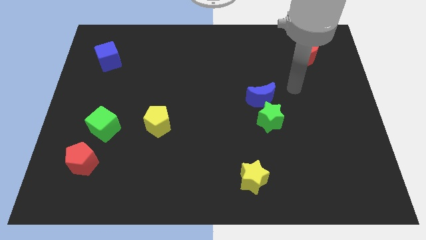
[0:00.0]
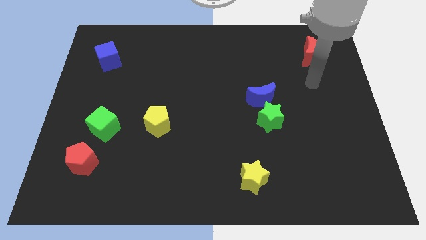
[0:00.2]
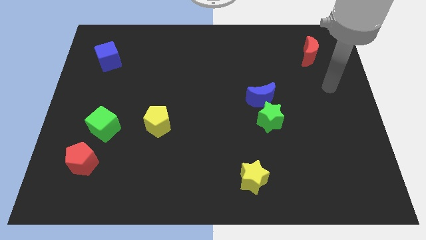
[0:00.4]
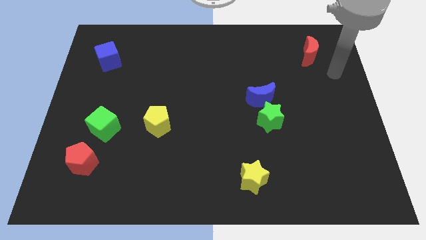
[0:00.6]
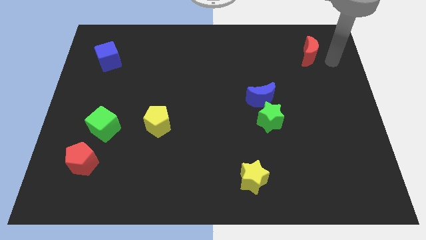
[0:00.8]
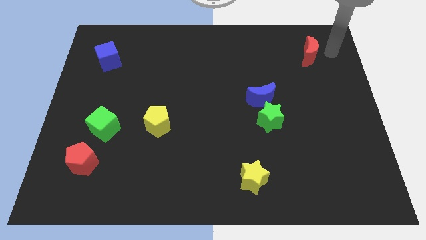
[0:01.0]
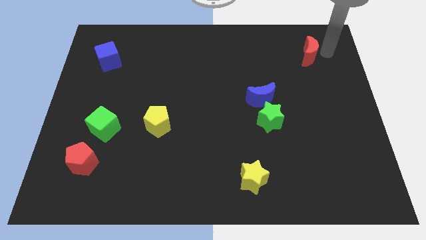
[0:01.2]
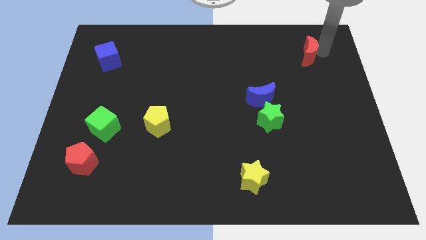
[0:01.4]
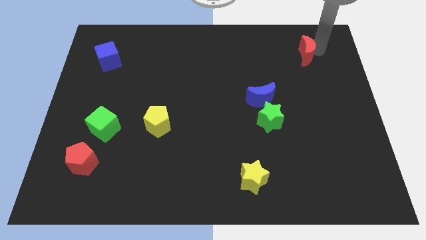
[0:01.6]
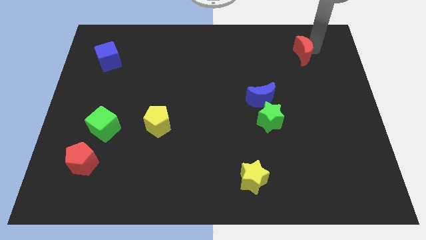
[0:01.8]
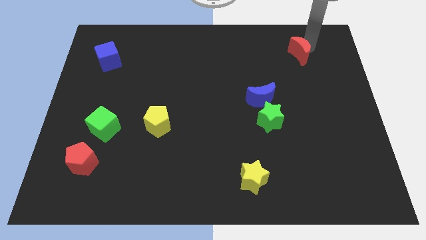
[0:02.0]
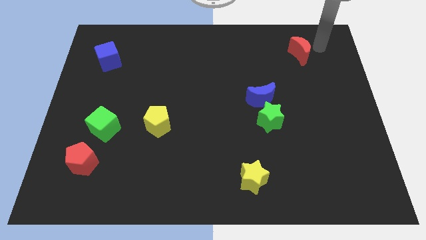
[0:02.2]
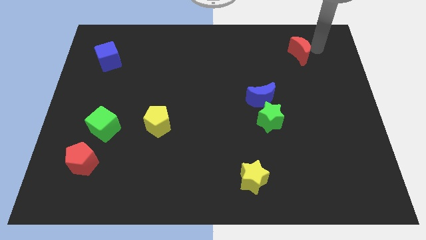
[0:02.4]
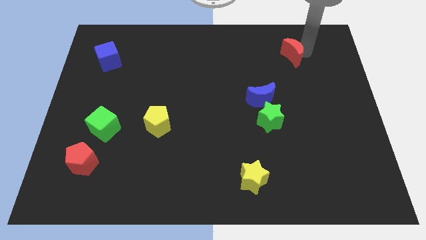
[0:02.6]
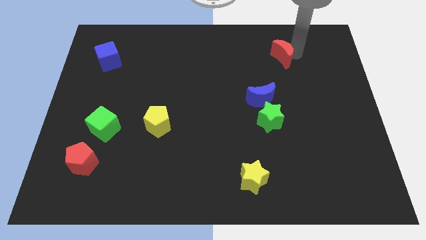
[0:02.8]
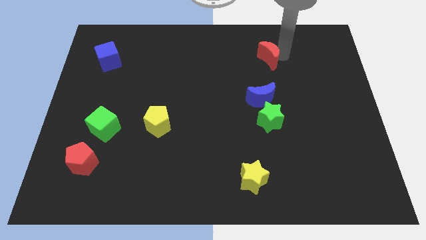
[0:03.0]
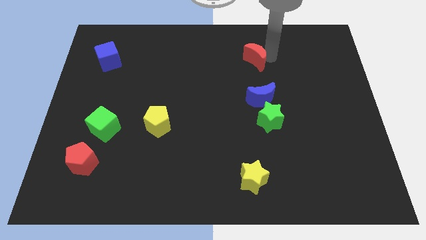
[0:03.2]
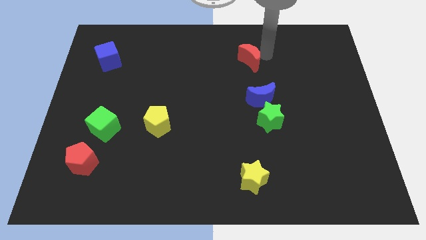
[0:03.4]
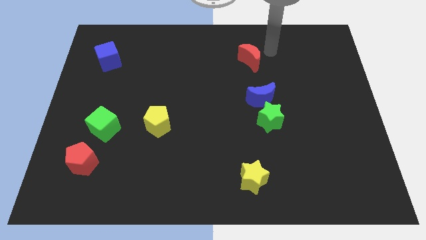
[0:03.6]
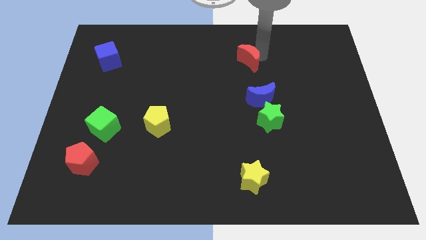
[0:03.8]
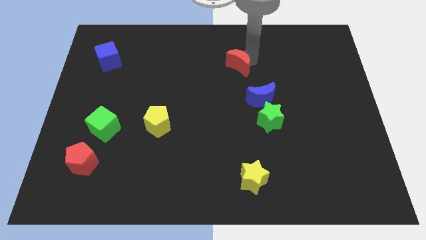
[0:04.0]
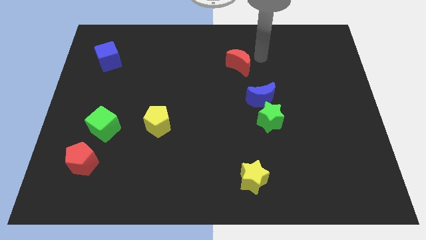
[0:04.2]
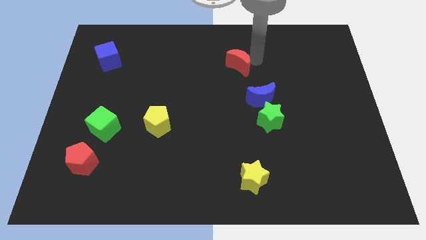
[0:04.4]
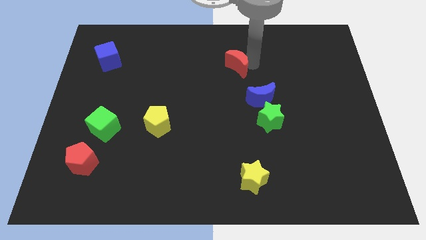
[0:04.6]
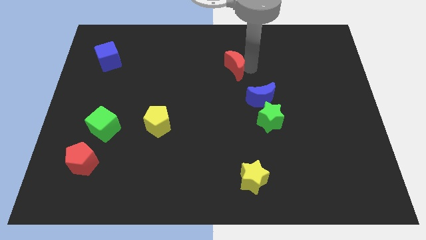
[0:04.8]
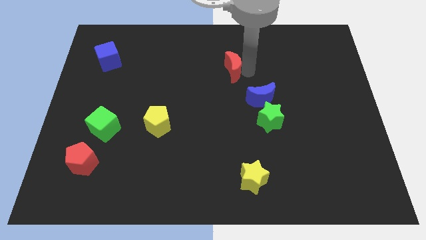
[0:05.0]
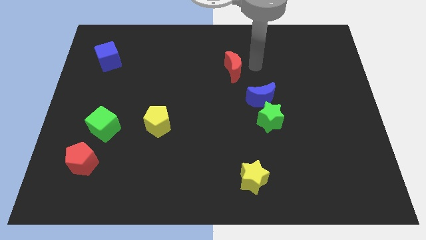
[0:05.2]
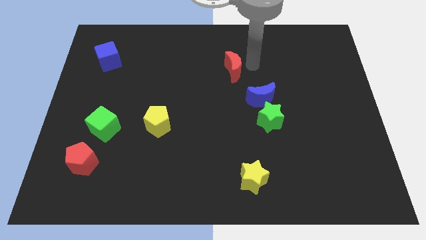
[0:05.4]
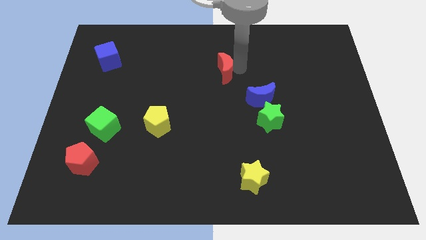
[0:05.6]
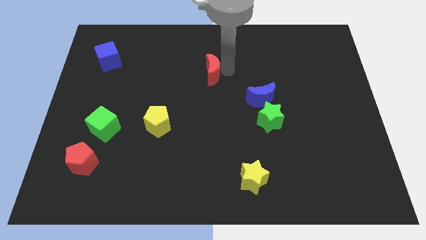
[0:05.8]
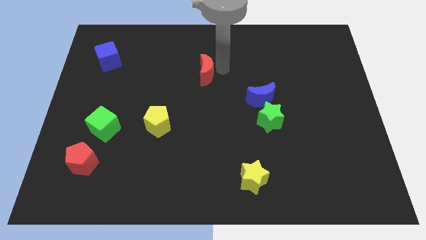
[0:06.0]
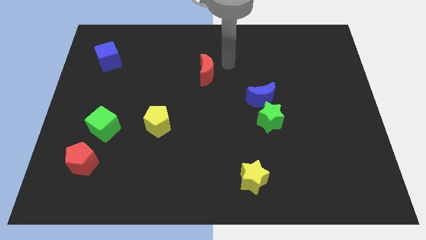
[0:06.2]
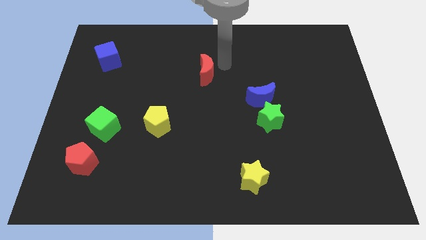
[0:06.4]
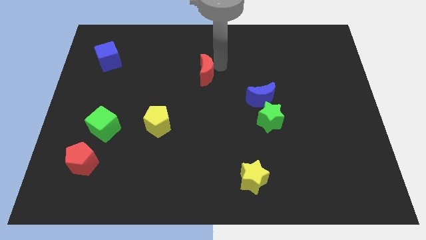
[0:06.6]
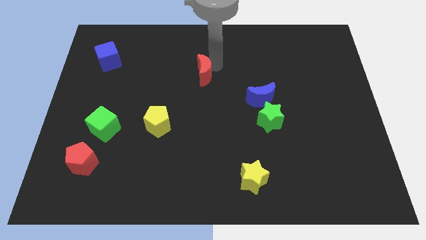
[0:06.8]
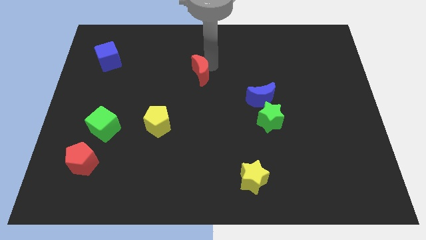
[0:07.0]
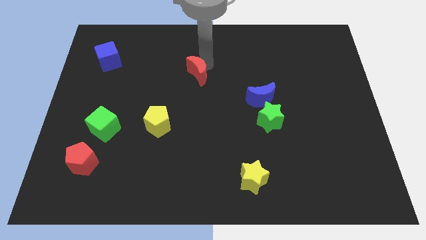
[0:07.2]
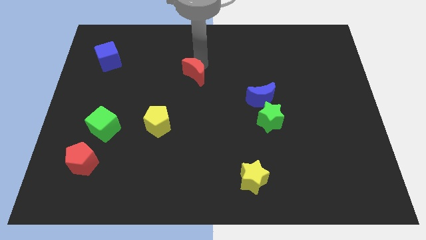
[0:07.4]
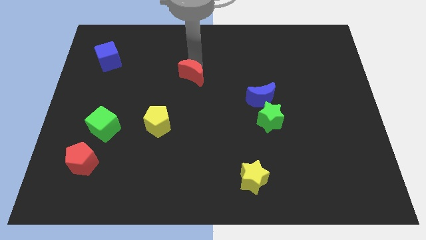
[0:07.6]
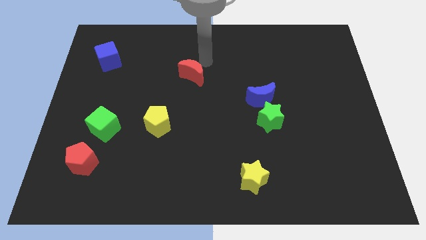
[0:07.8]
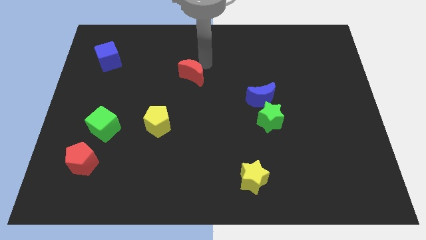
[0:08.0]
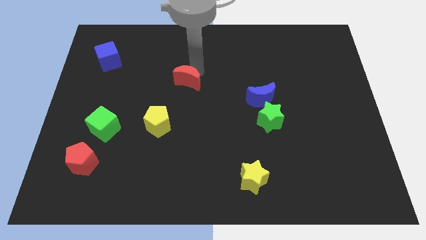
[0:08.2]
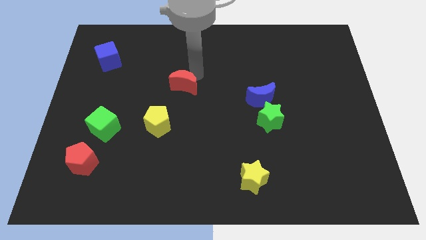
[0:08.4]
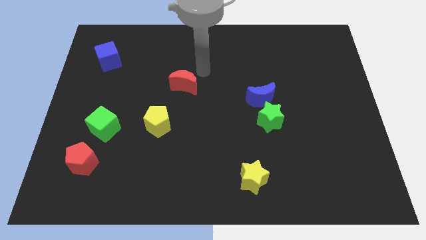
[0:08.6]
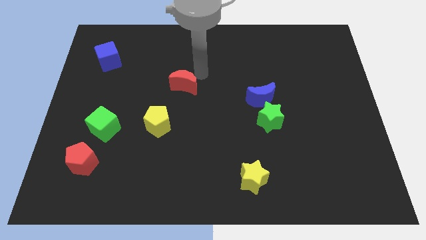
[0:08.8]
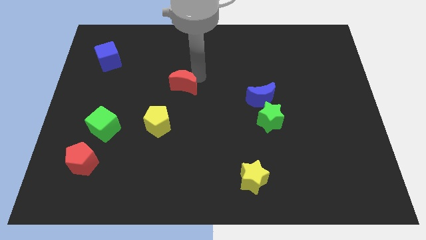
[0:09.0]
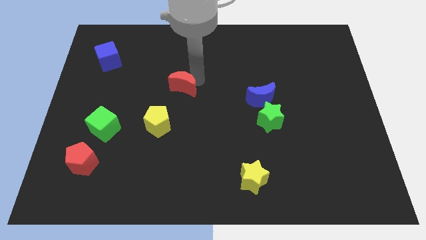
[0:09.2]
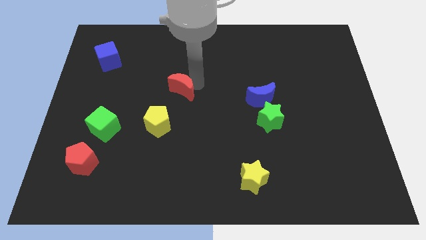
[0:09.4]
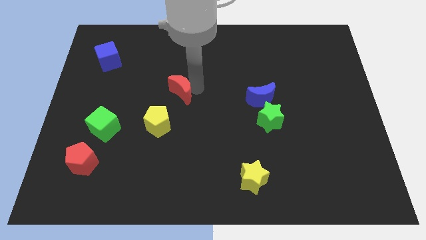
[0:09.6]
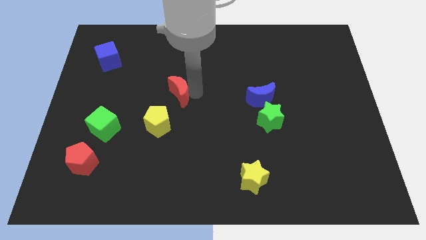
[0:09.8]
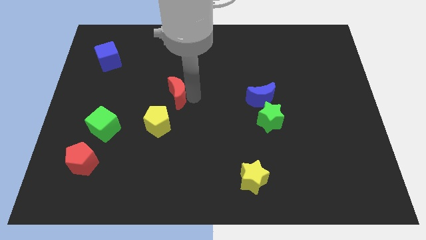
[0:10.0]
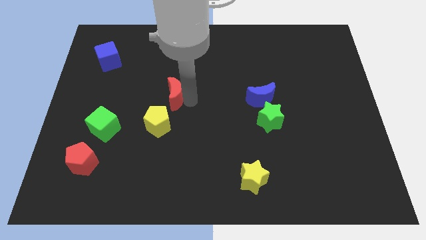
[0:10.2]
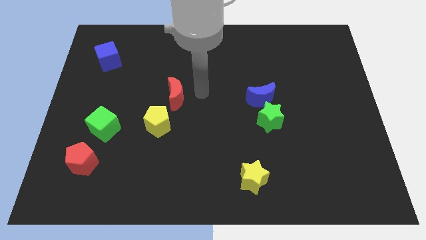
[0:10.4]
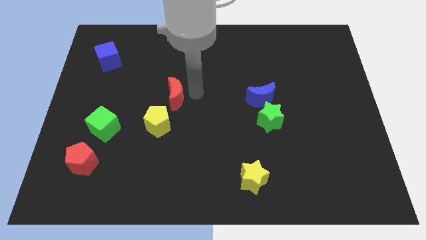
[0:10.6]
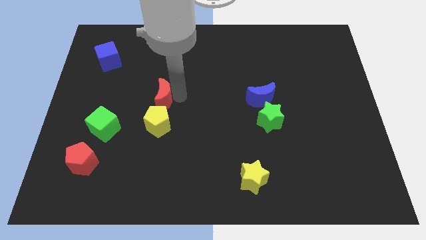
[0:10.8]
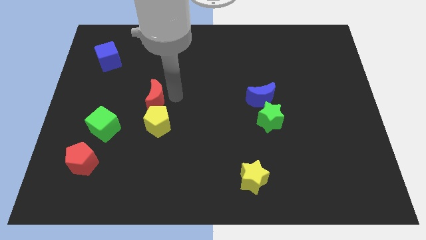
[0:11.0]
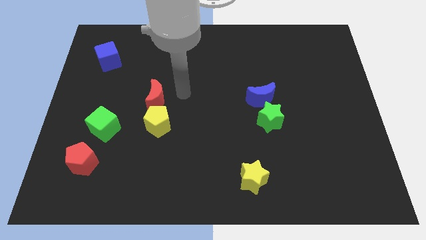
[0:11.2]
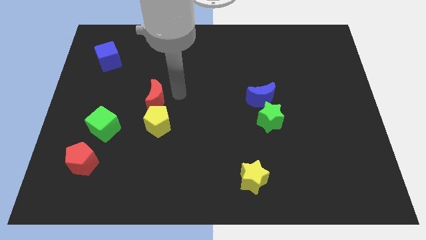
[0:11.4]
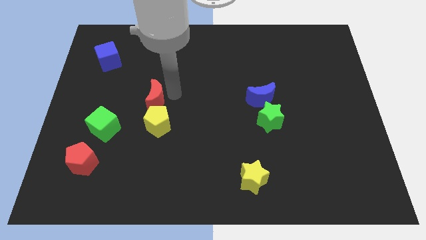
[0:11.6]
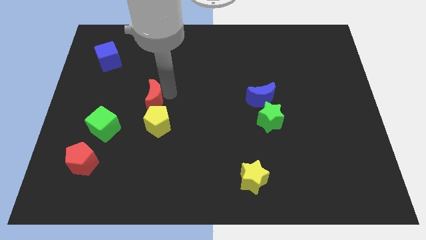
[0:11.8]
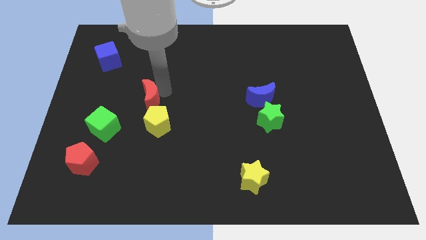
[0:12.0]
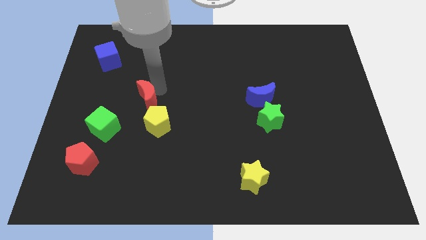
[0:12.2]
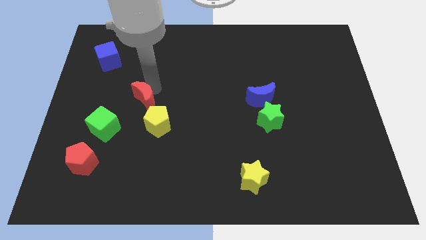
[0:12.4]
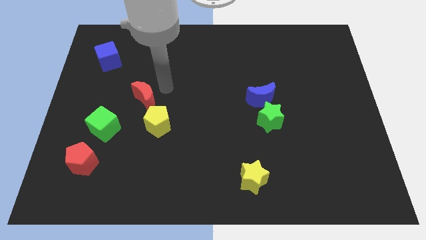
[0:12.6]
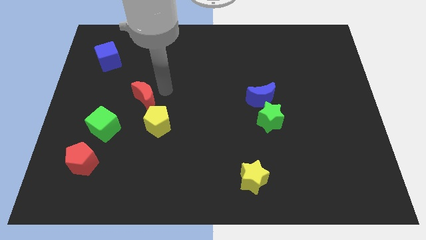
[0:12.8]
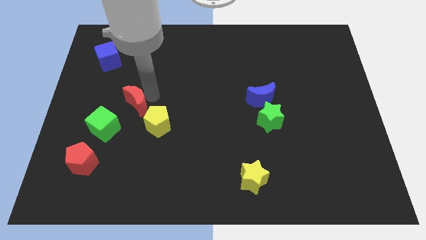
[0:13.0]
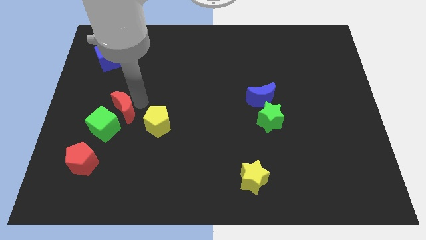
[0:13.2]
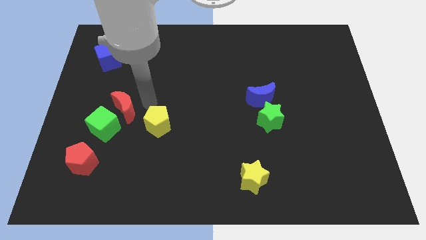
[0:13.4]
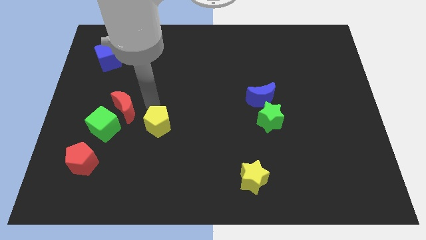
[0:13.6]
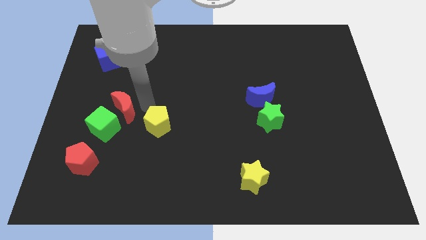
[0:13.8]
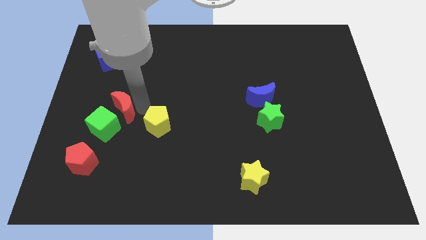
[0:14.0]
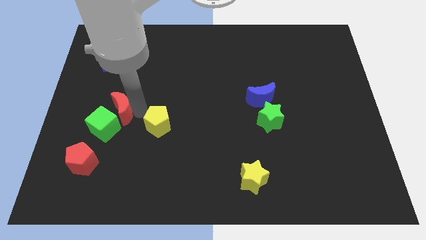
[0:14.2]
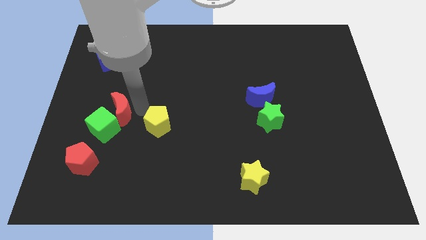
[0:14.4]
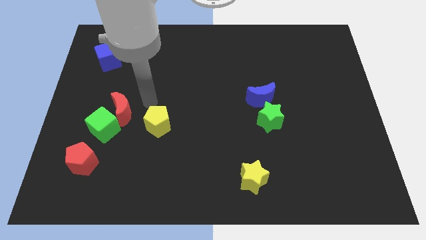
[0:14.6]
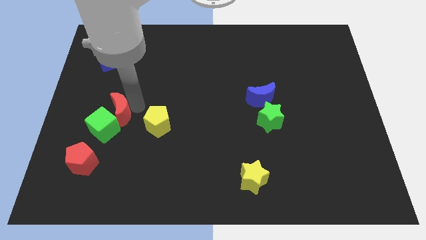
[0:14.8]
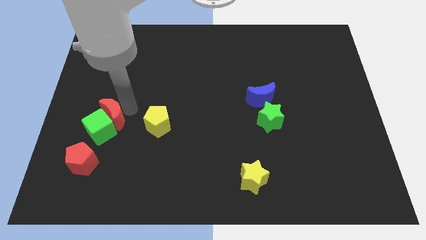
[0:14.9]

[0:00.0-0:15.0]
move the red moon to the top of the red pentagon
